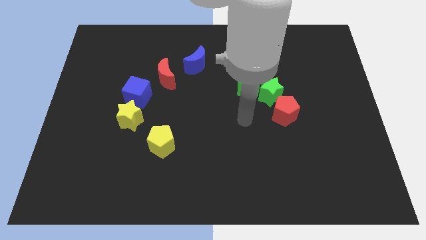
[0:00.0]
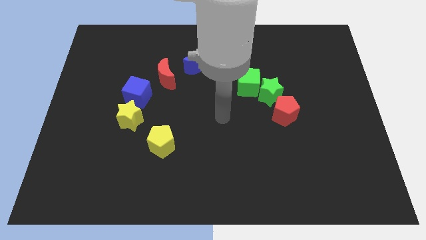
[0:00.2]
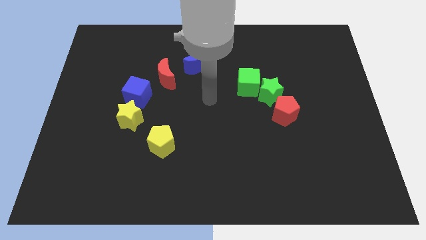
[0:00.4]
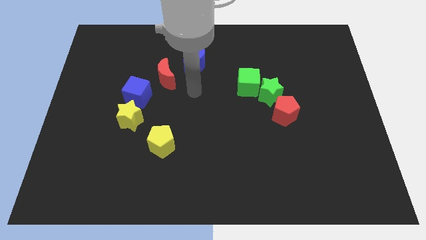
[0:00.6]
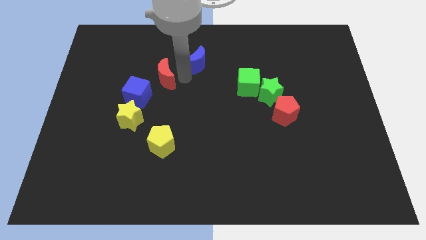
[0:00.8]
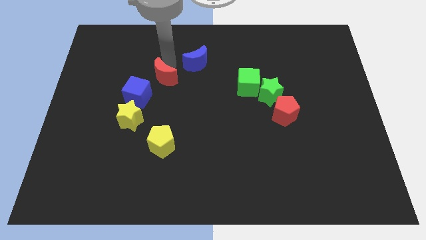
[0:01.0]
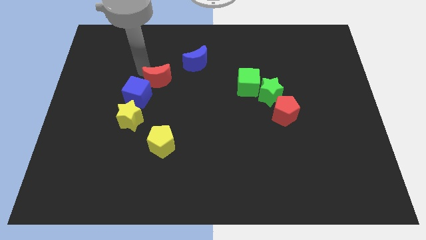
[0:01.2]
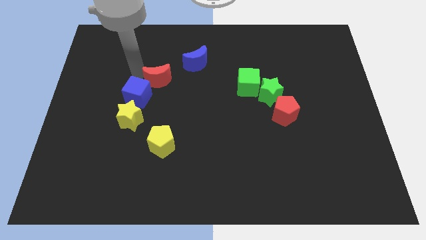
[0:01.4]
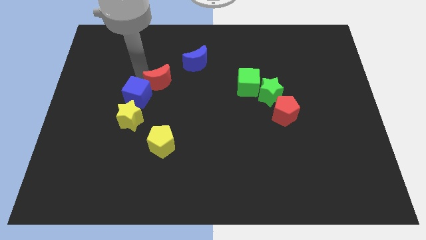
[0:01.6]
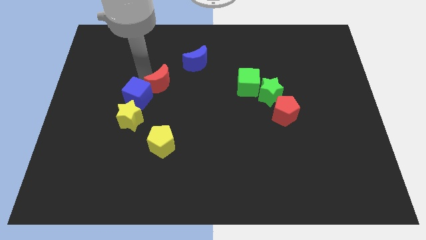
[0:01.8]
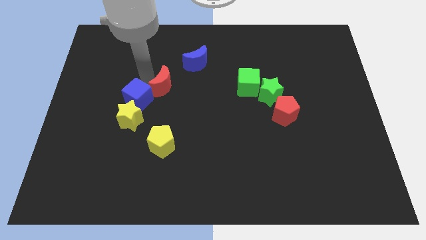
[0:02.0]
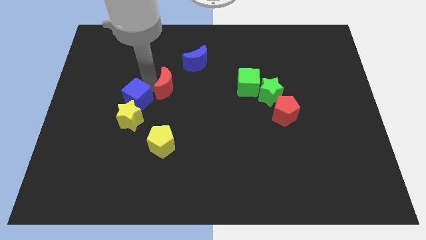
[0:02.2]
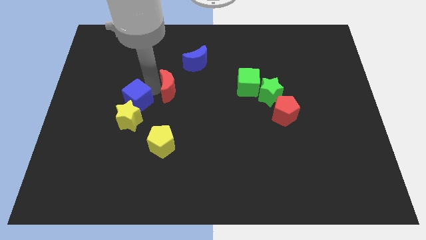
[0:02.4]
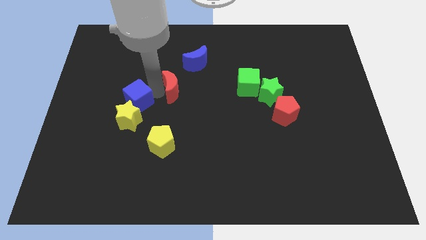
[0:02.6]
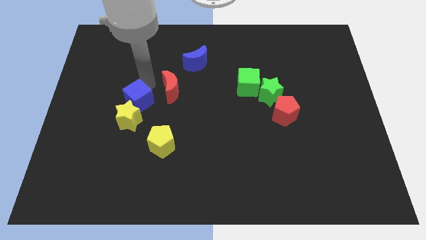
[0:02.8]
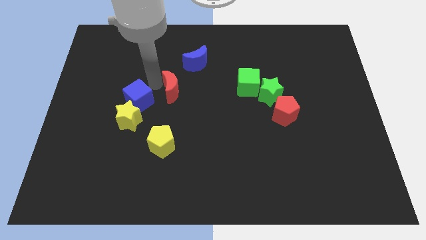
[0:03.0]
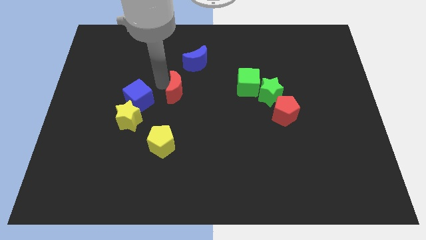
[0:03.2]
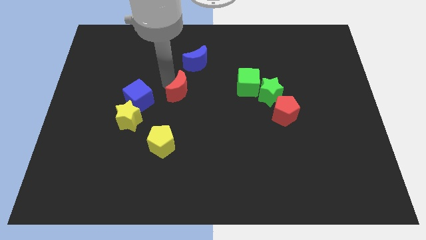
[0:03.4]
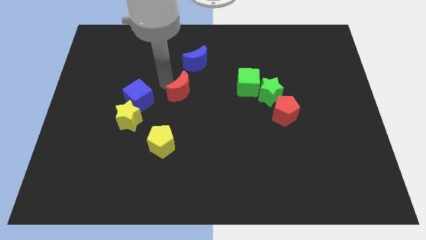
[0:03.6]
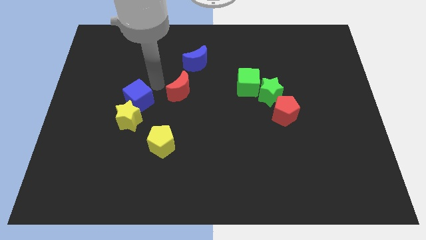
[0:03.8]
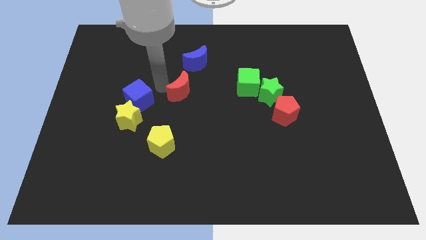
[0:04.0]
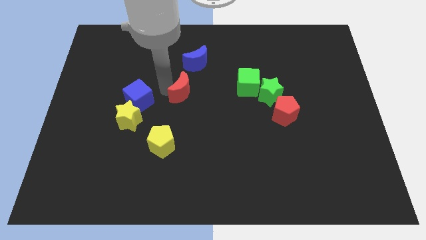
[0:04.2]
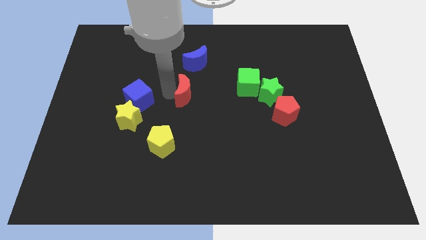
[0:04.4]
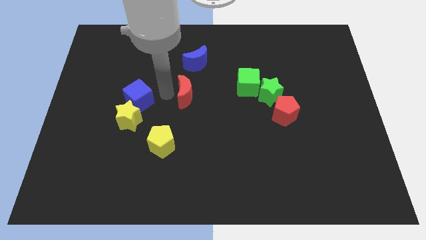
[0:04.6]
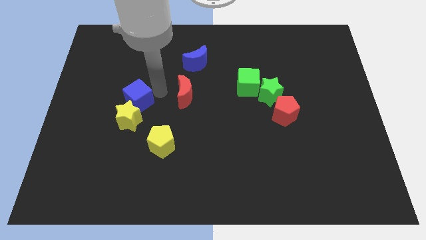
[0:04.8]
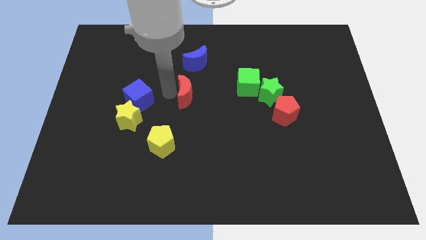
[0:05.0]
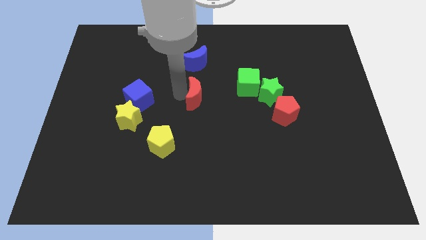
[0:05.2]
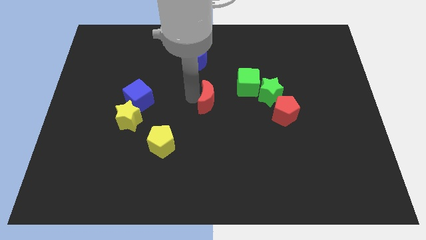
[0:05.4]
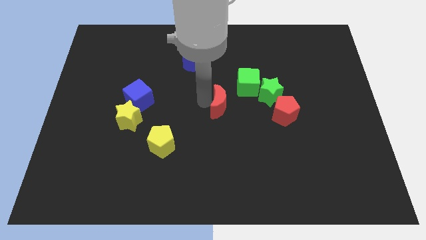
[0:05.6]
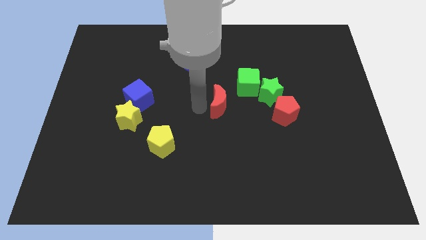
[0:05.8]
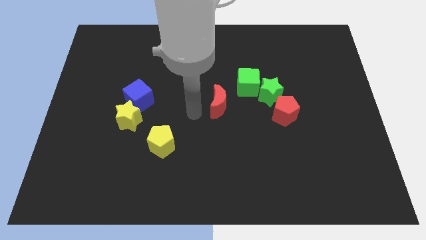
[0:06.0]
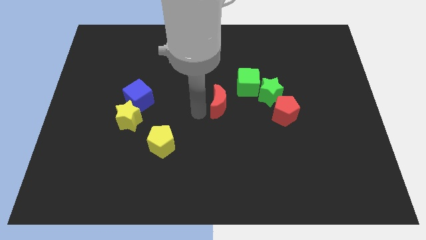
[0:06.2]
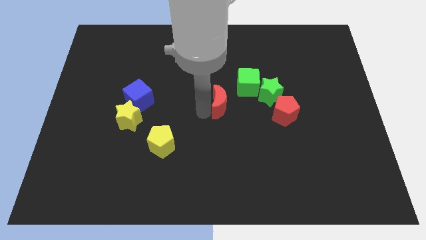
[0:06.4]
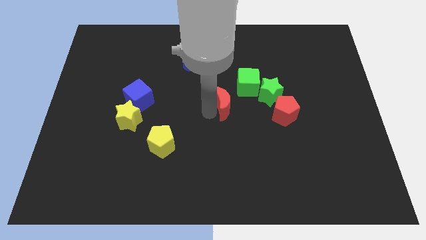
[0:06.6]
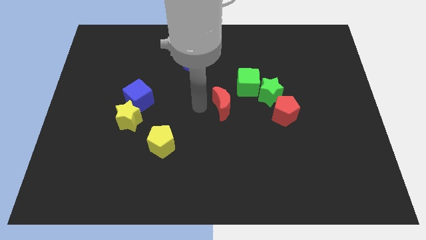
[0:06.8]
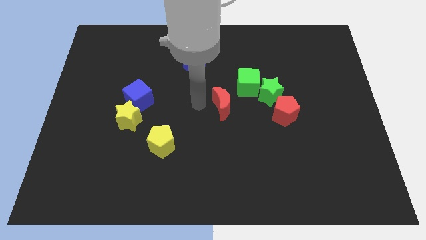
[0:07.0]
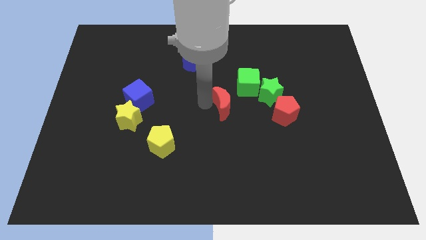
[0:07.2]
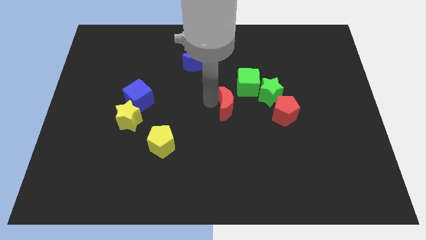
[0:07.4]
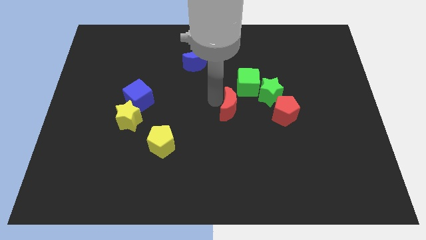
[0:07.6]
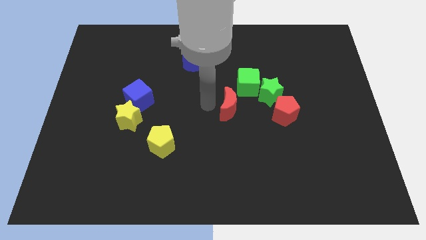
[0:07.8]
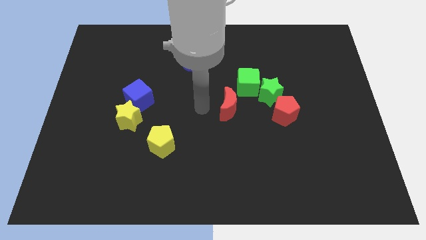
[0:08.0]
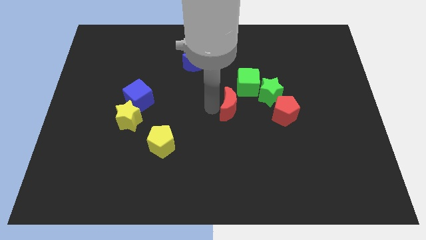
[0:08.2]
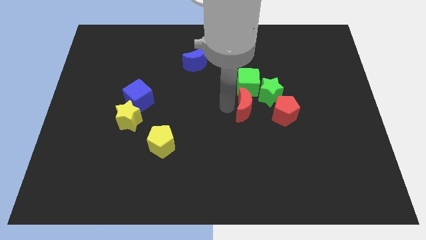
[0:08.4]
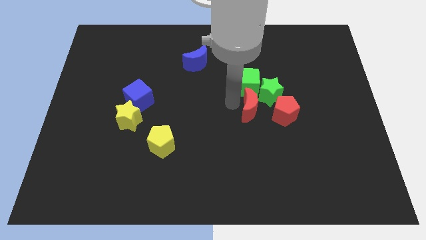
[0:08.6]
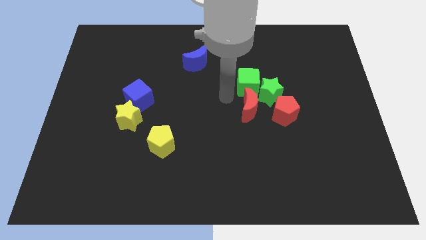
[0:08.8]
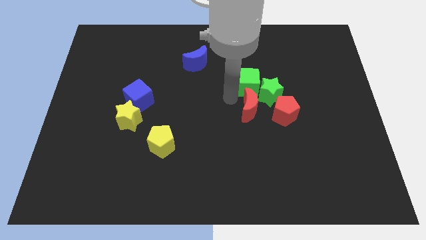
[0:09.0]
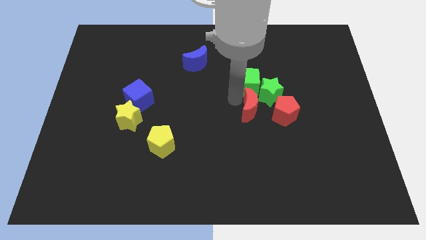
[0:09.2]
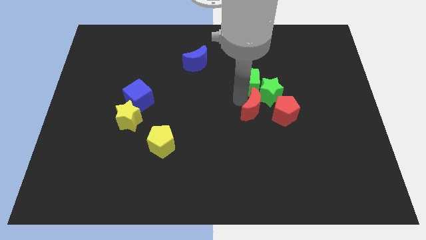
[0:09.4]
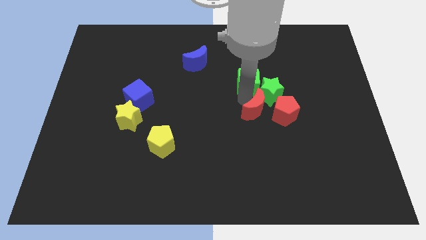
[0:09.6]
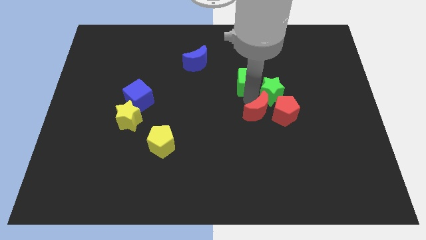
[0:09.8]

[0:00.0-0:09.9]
slide the red moon towards the red pentagon

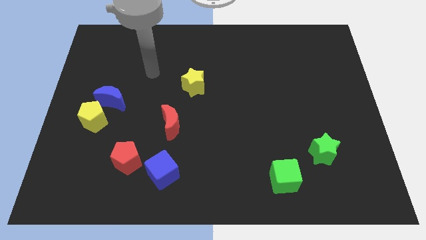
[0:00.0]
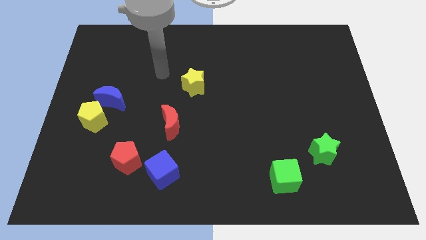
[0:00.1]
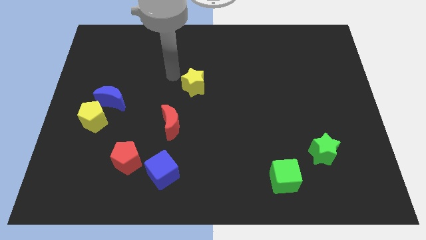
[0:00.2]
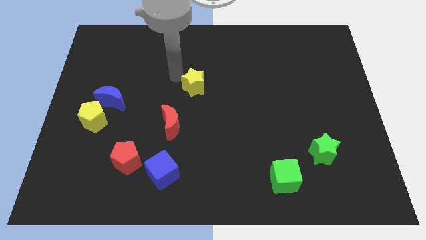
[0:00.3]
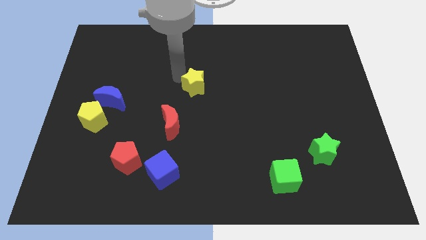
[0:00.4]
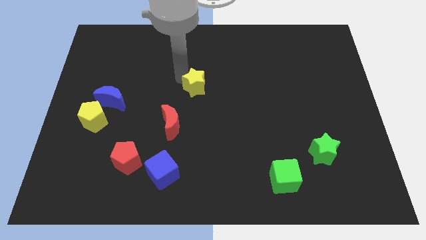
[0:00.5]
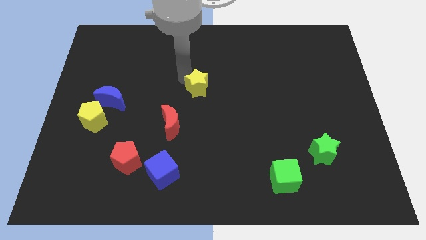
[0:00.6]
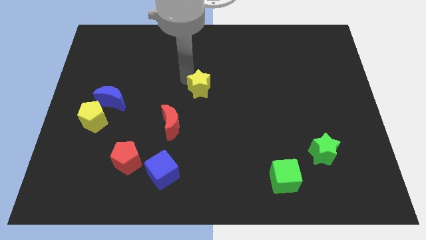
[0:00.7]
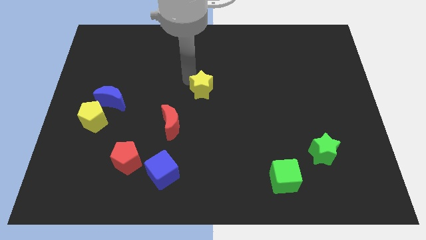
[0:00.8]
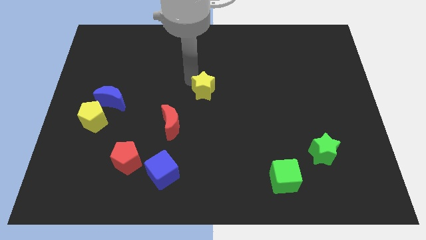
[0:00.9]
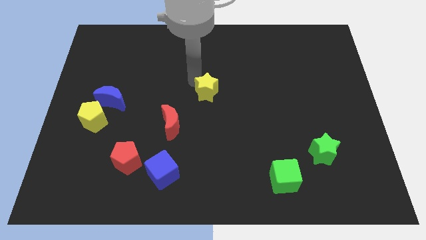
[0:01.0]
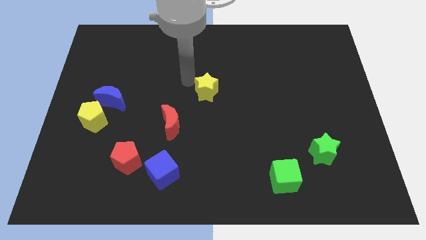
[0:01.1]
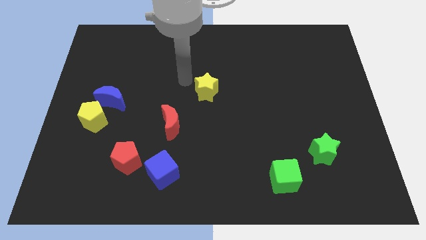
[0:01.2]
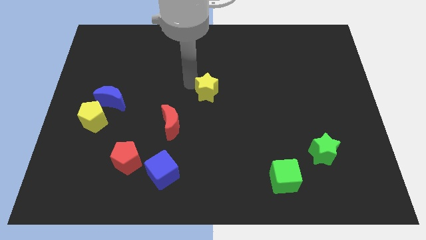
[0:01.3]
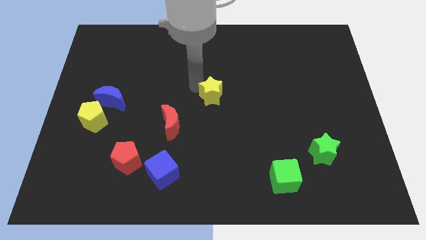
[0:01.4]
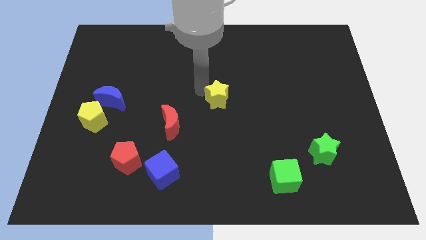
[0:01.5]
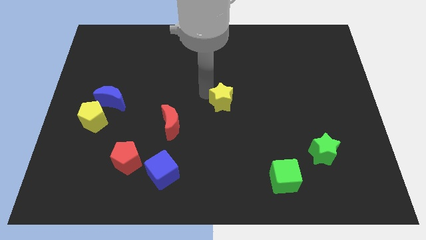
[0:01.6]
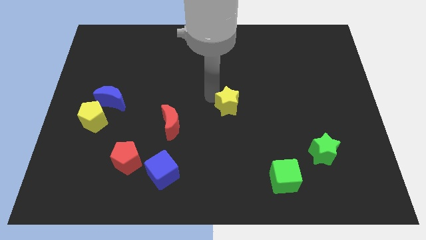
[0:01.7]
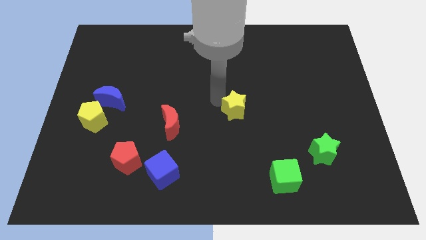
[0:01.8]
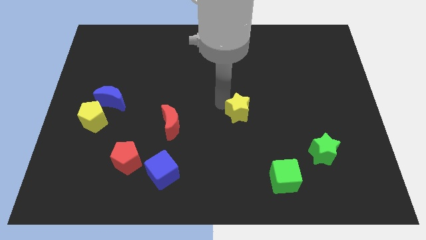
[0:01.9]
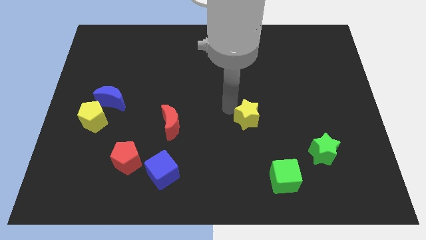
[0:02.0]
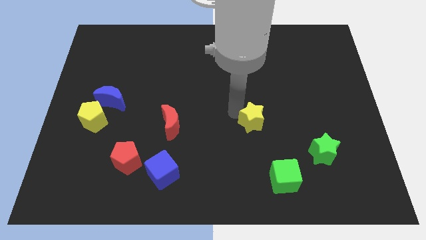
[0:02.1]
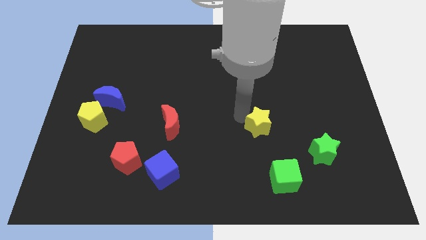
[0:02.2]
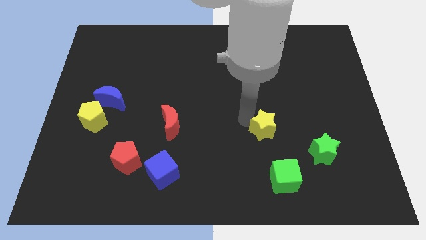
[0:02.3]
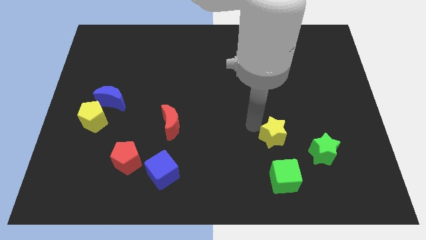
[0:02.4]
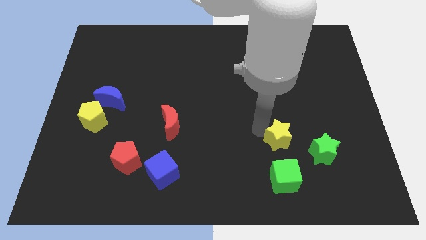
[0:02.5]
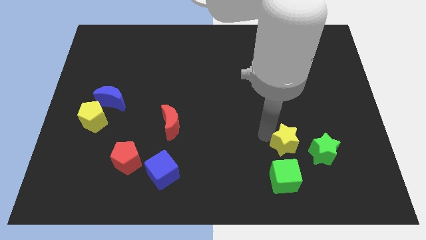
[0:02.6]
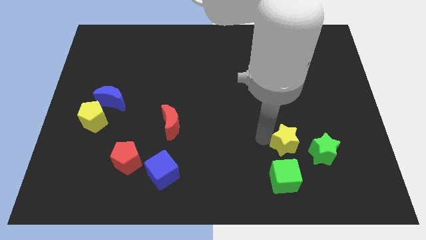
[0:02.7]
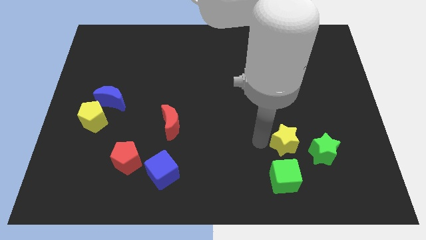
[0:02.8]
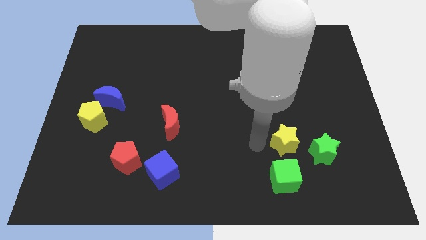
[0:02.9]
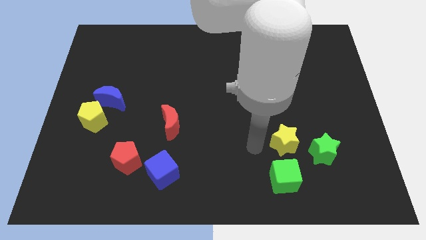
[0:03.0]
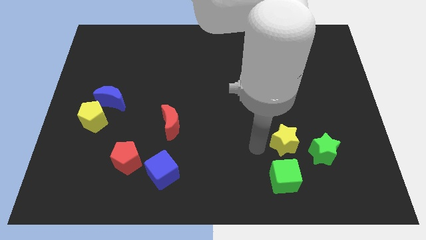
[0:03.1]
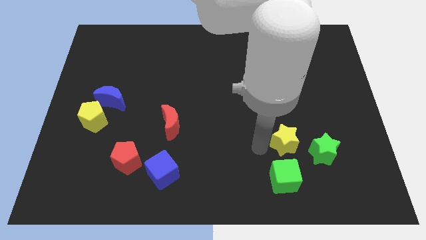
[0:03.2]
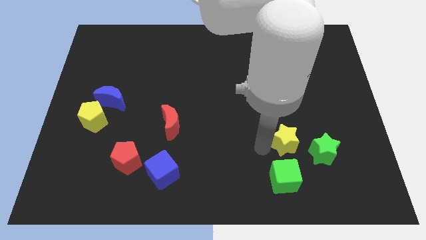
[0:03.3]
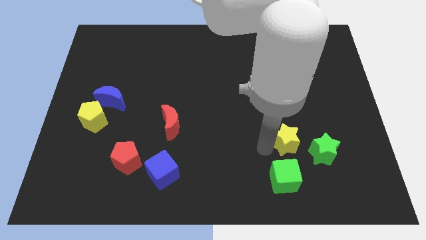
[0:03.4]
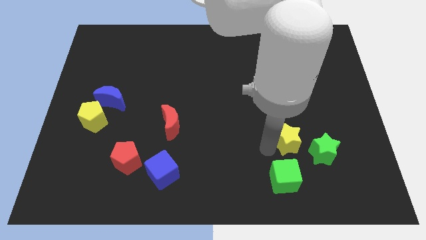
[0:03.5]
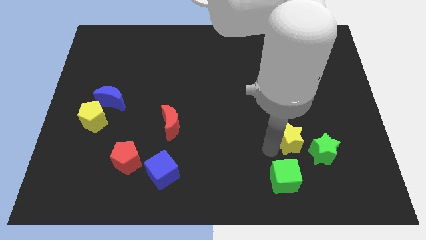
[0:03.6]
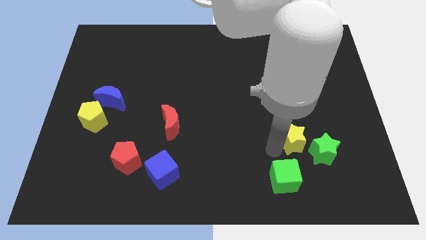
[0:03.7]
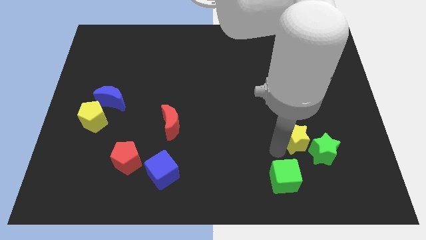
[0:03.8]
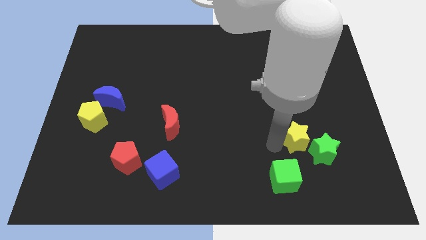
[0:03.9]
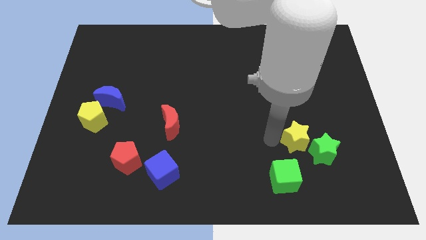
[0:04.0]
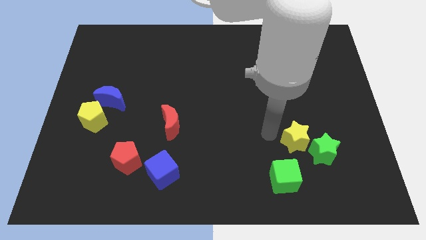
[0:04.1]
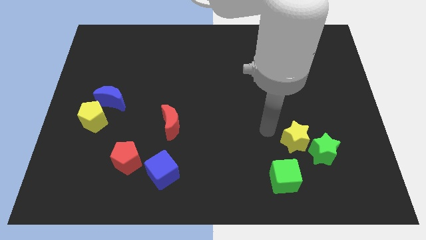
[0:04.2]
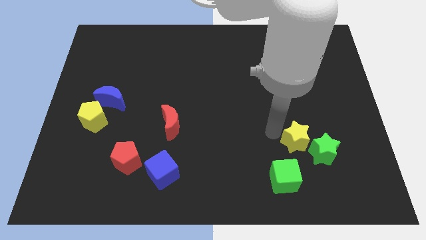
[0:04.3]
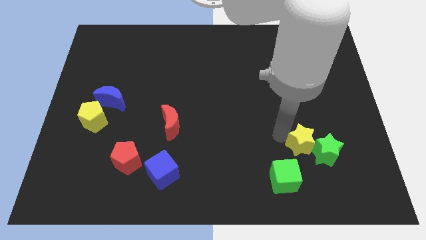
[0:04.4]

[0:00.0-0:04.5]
put the yellow star close to the green star
